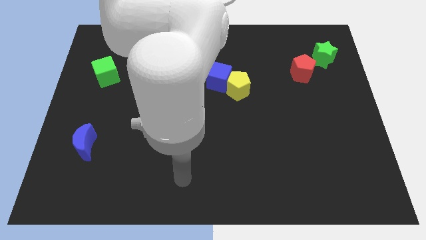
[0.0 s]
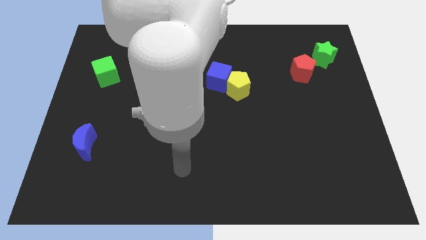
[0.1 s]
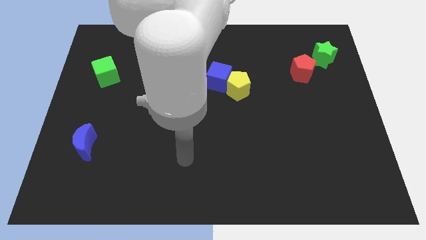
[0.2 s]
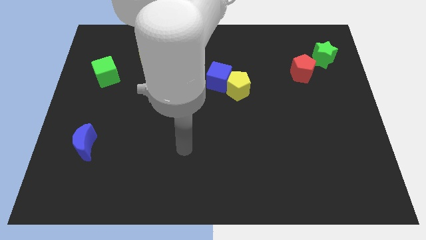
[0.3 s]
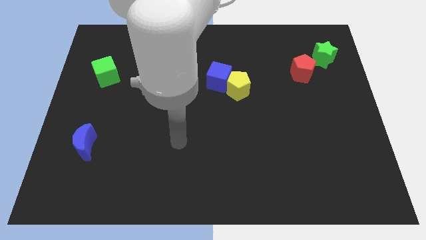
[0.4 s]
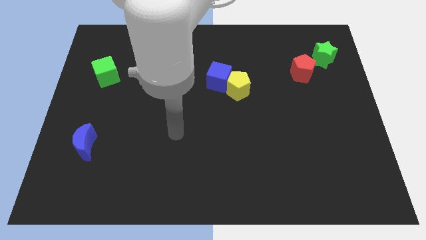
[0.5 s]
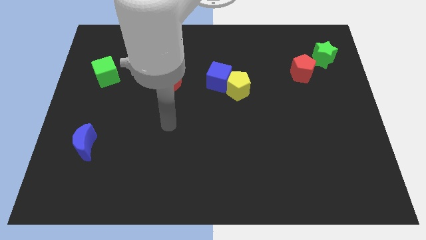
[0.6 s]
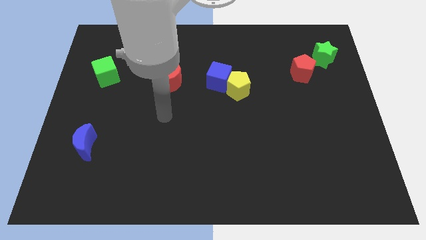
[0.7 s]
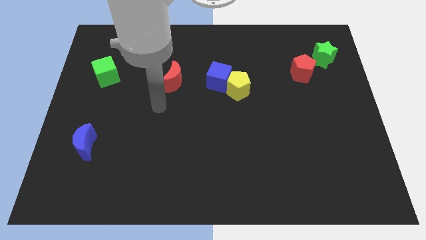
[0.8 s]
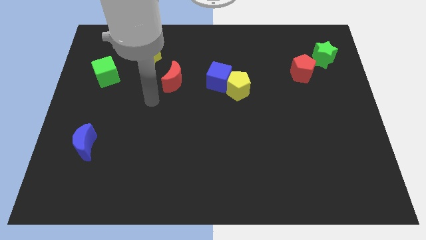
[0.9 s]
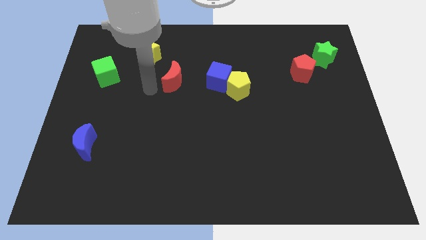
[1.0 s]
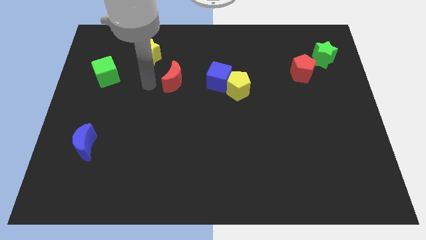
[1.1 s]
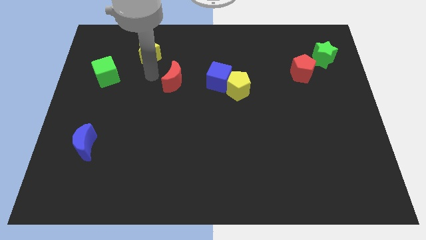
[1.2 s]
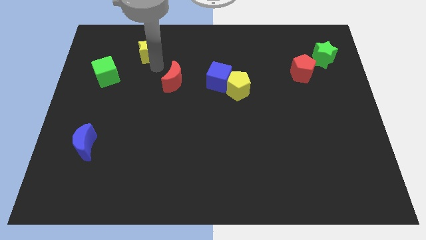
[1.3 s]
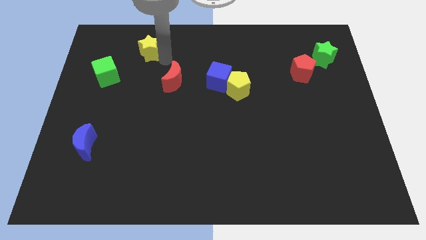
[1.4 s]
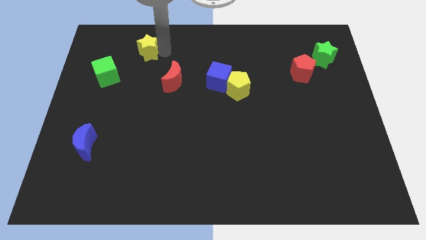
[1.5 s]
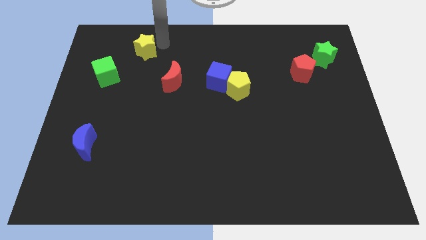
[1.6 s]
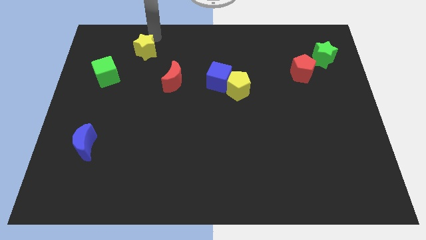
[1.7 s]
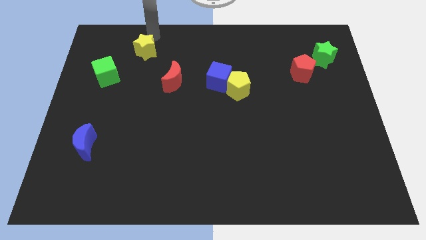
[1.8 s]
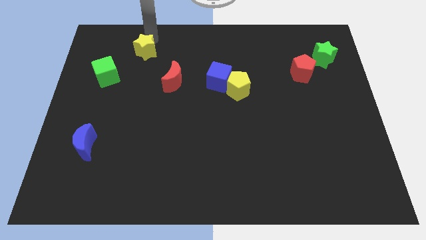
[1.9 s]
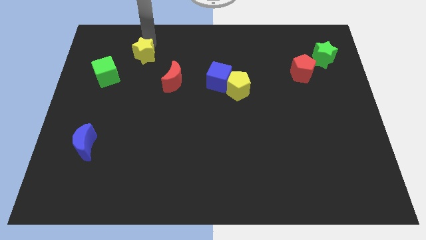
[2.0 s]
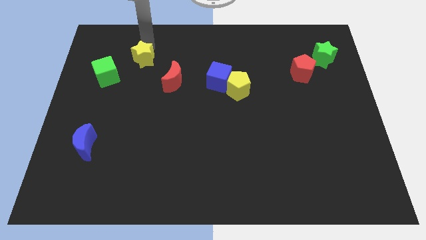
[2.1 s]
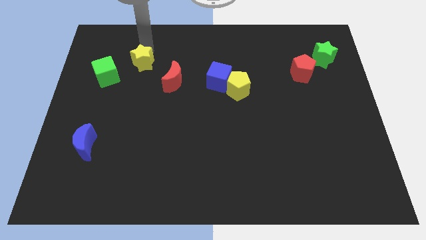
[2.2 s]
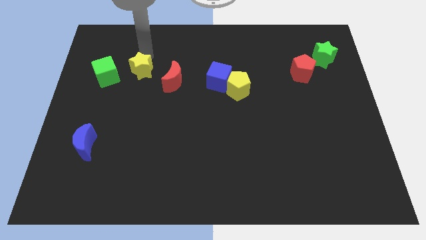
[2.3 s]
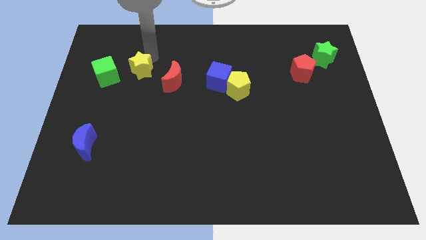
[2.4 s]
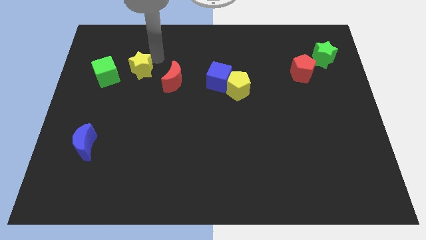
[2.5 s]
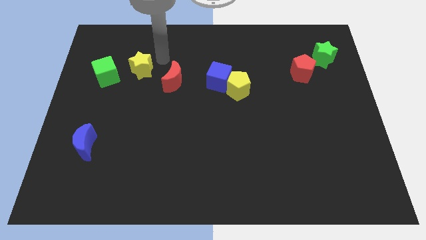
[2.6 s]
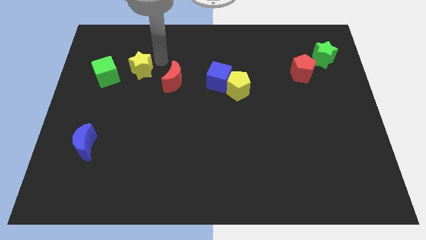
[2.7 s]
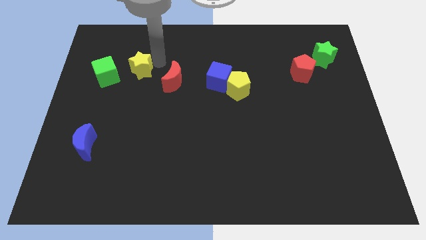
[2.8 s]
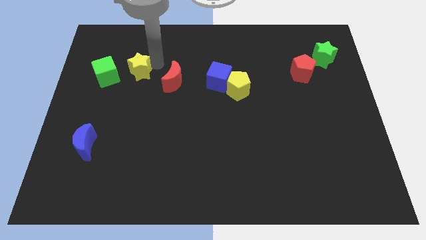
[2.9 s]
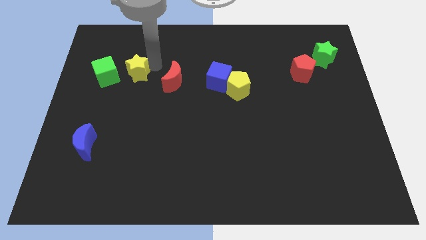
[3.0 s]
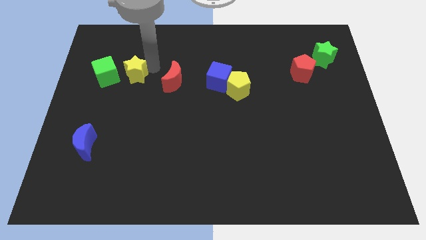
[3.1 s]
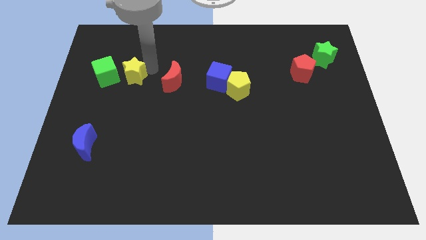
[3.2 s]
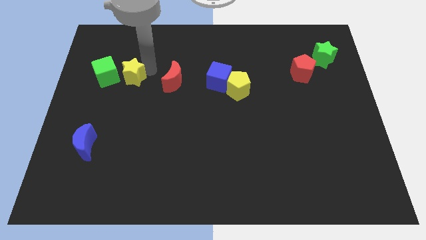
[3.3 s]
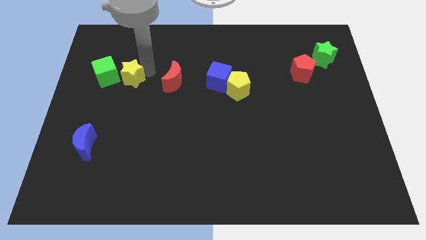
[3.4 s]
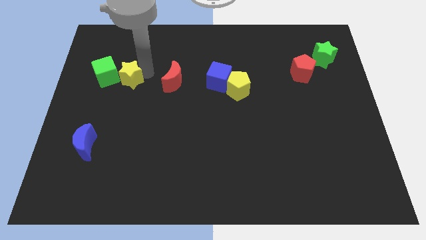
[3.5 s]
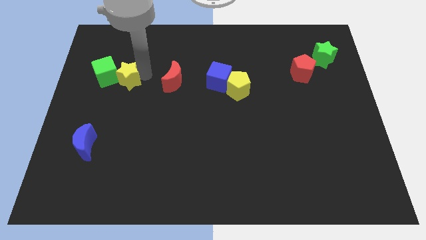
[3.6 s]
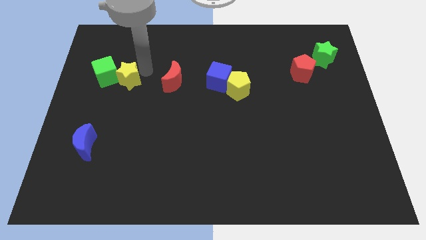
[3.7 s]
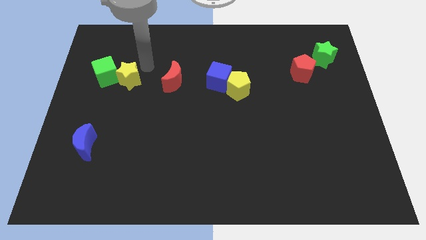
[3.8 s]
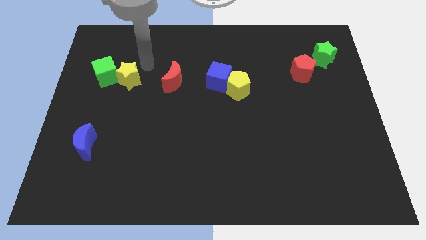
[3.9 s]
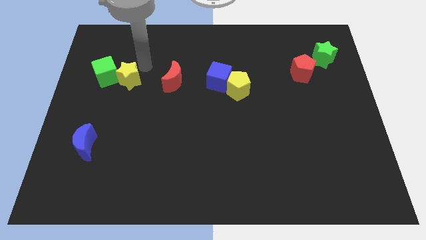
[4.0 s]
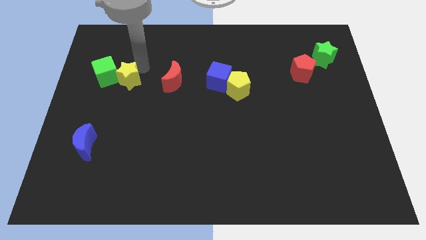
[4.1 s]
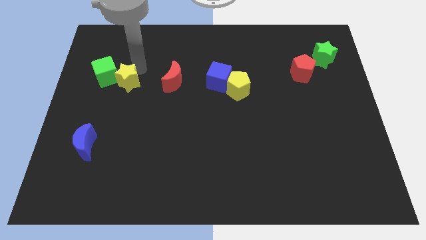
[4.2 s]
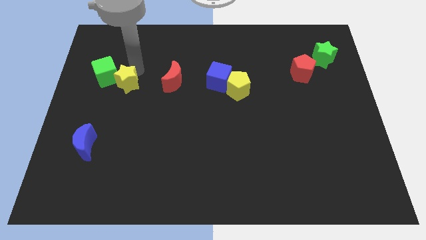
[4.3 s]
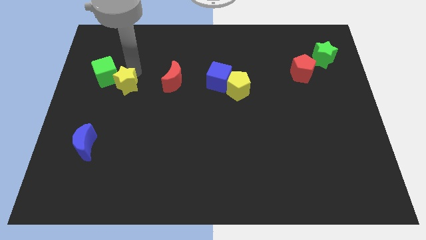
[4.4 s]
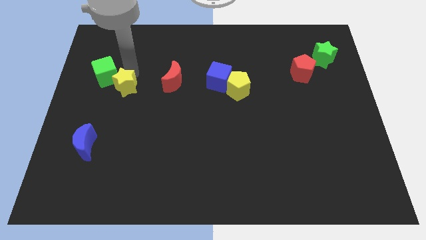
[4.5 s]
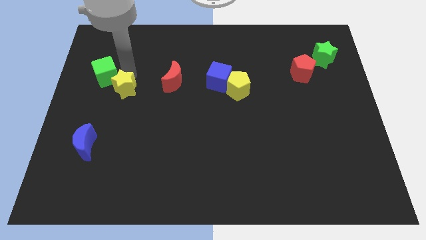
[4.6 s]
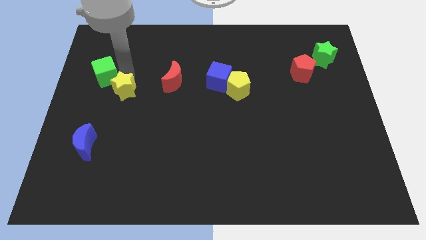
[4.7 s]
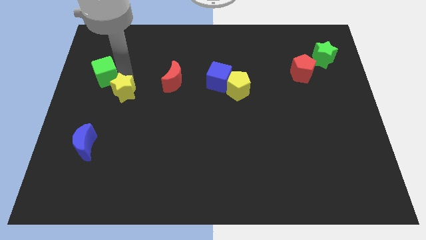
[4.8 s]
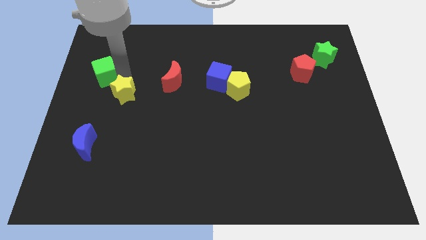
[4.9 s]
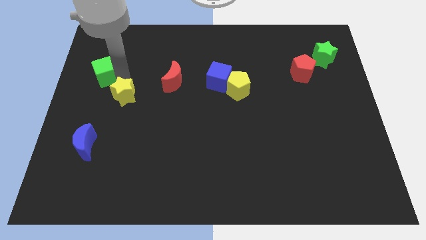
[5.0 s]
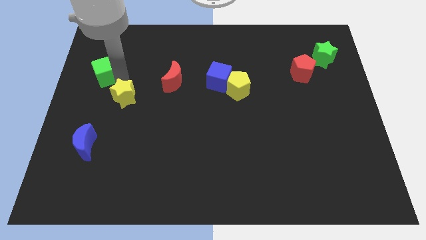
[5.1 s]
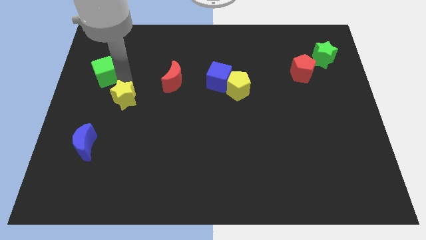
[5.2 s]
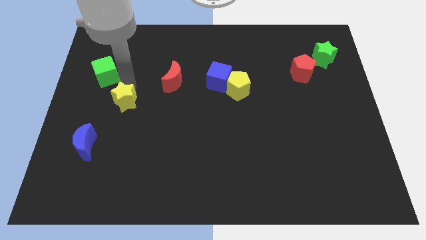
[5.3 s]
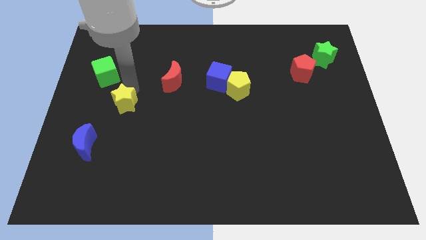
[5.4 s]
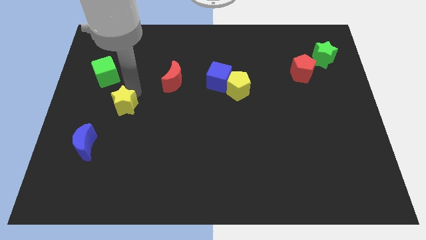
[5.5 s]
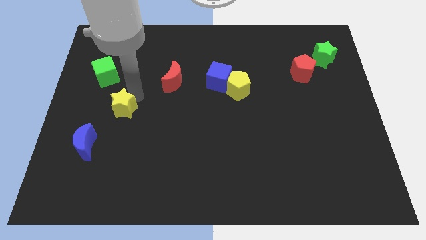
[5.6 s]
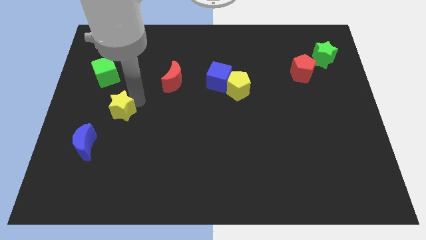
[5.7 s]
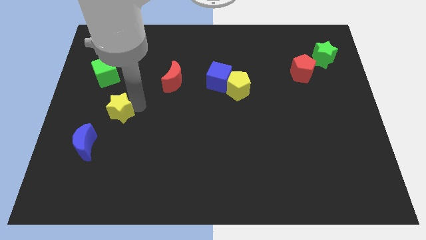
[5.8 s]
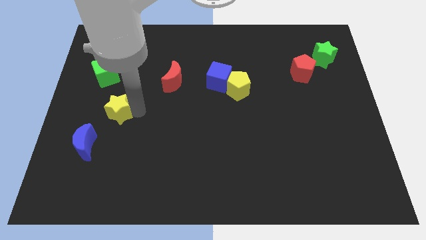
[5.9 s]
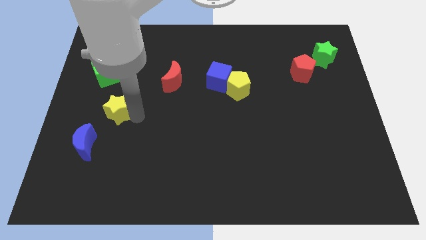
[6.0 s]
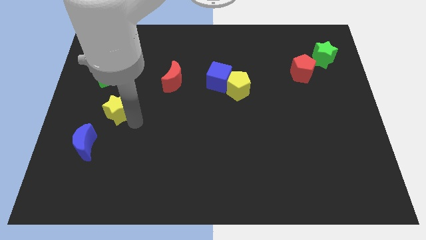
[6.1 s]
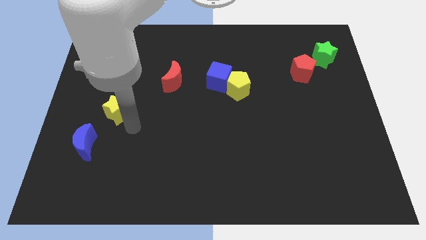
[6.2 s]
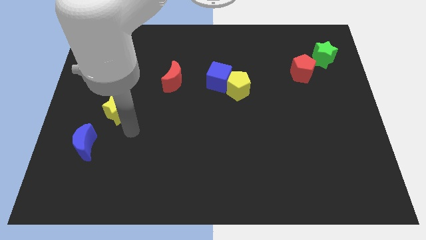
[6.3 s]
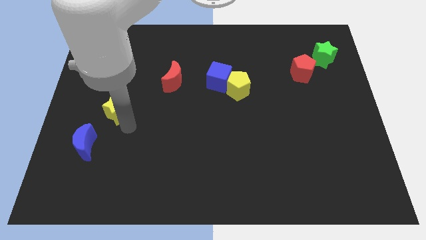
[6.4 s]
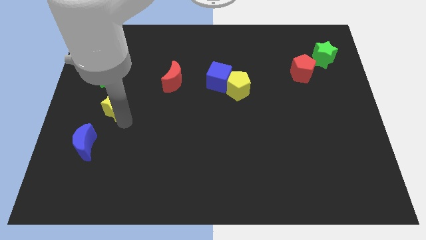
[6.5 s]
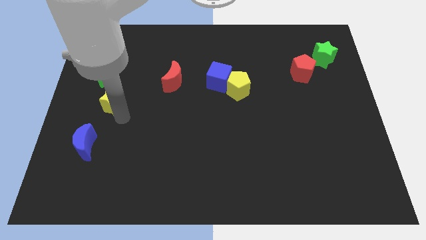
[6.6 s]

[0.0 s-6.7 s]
put the yellow star above the blue moon

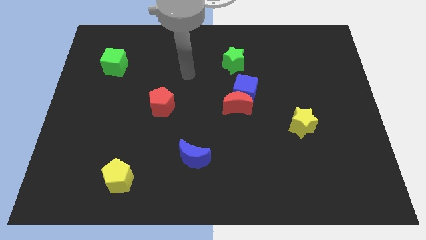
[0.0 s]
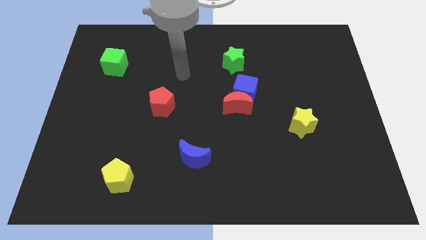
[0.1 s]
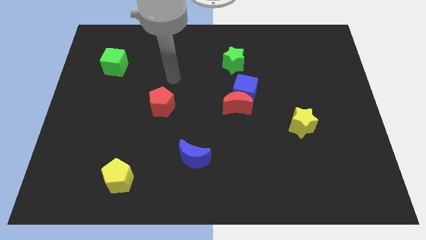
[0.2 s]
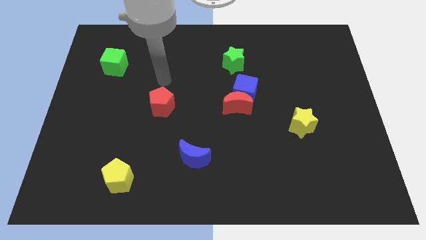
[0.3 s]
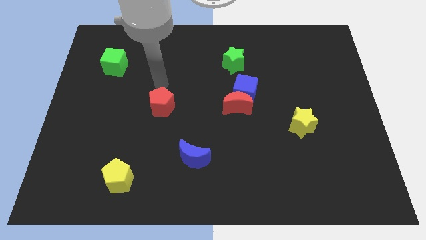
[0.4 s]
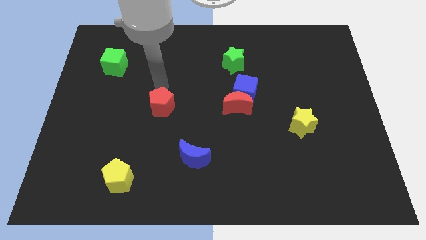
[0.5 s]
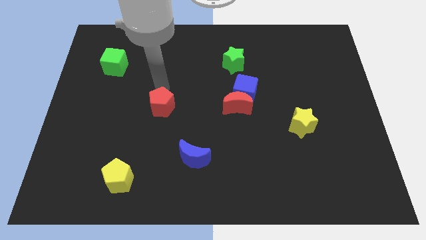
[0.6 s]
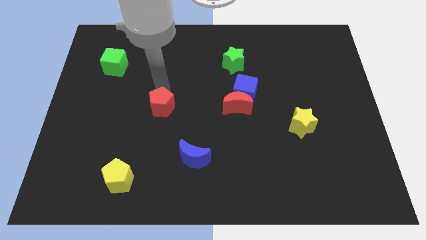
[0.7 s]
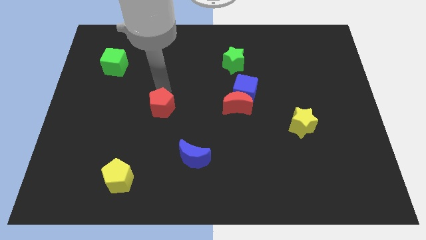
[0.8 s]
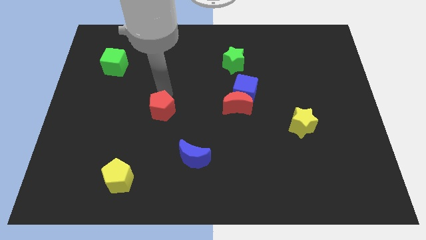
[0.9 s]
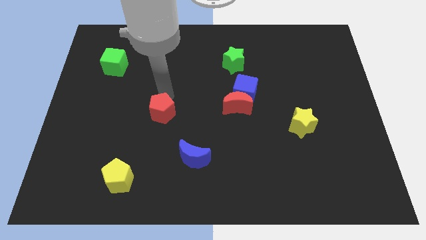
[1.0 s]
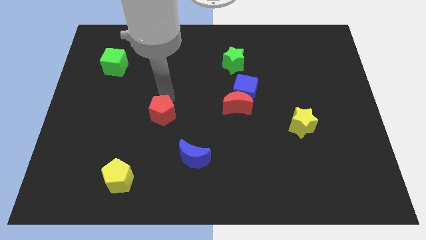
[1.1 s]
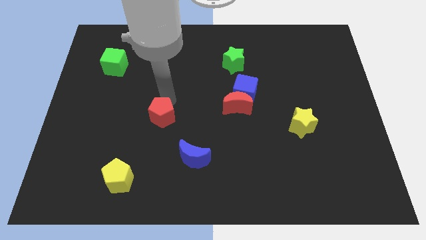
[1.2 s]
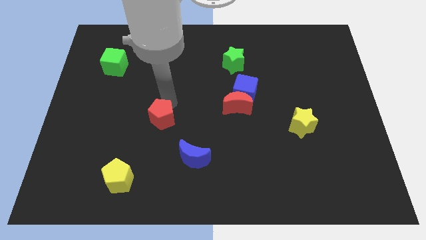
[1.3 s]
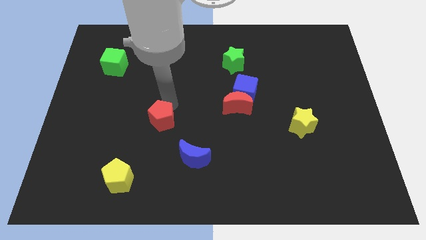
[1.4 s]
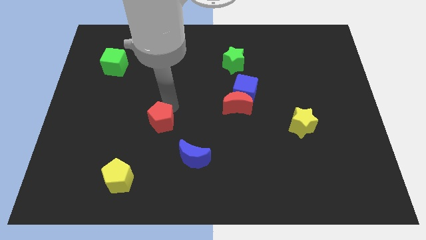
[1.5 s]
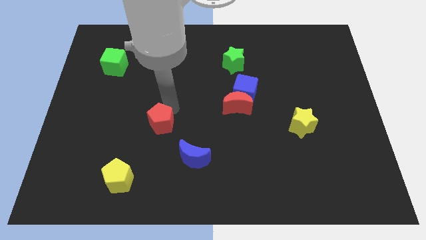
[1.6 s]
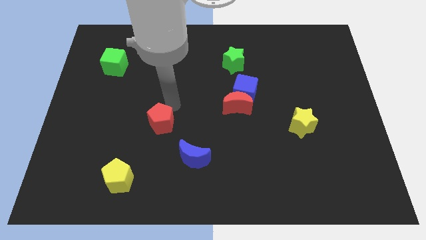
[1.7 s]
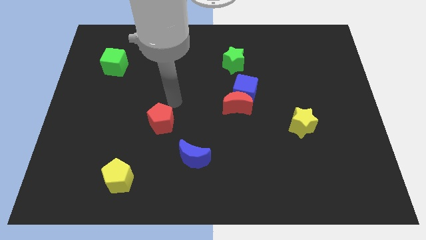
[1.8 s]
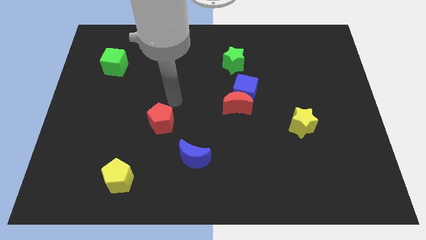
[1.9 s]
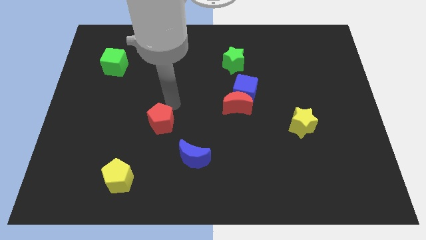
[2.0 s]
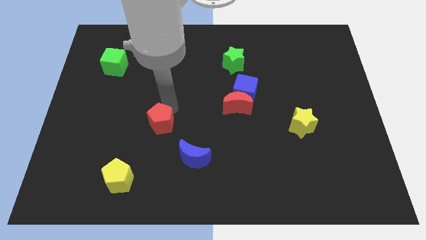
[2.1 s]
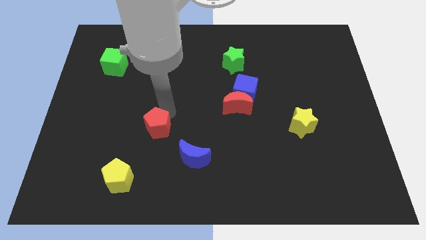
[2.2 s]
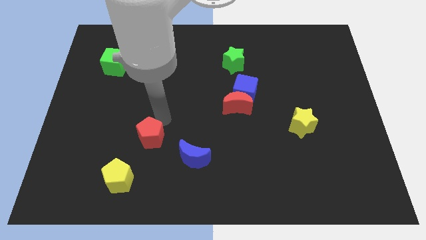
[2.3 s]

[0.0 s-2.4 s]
put the red pentagon to the top right side of the yellow pentagon
